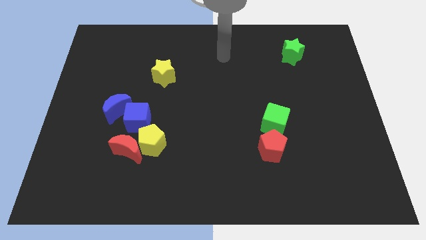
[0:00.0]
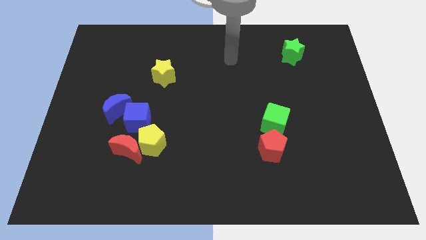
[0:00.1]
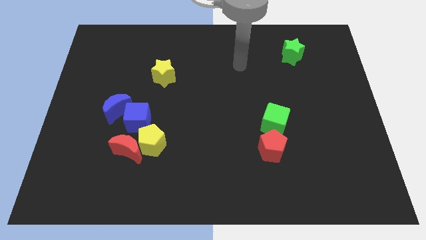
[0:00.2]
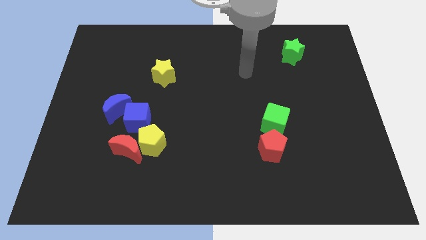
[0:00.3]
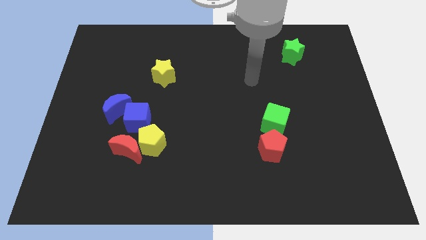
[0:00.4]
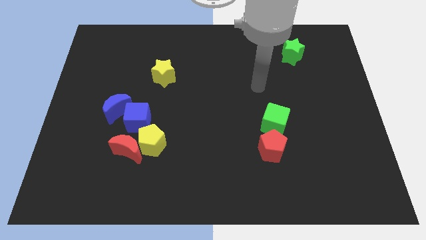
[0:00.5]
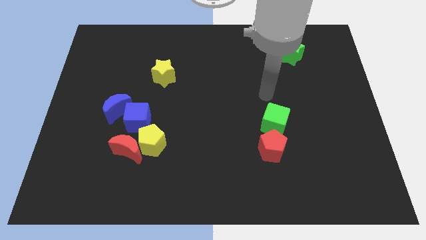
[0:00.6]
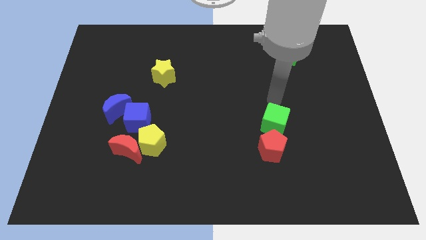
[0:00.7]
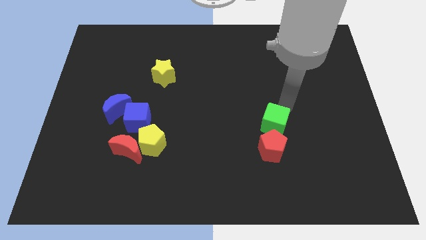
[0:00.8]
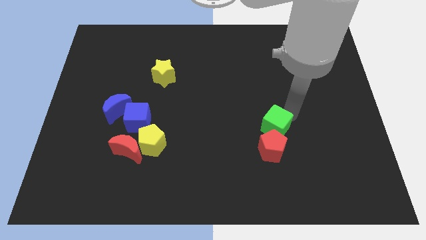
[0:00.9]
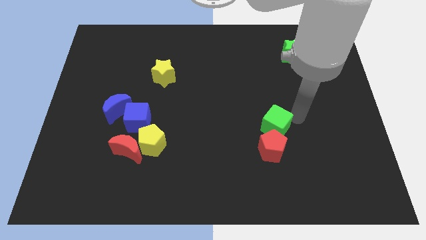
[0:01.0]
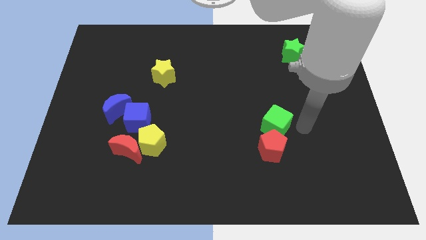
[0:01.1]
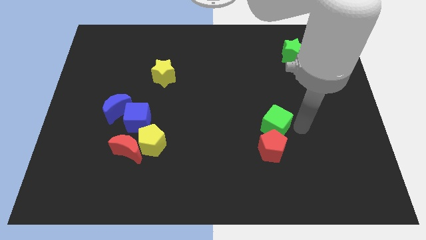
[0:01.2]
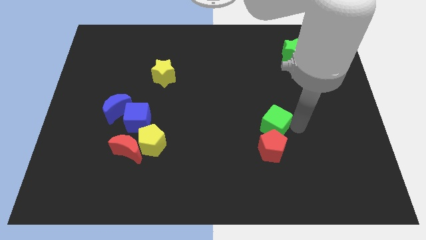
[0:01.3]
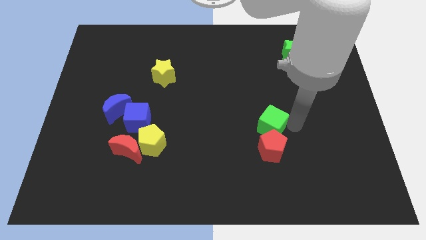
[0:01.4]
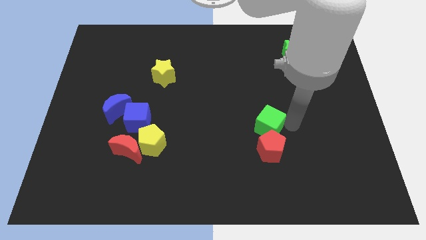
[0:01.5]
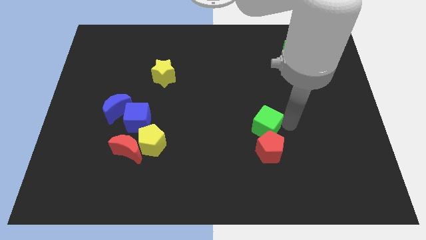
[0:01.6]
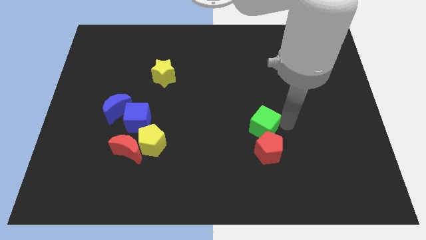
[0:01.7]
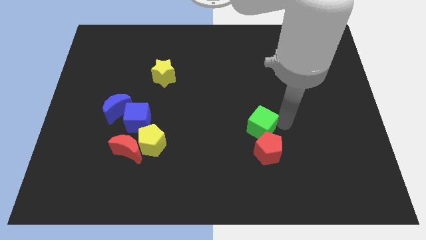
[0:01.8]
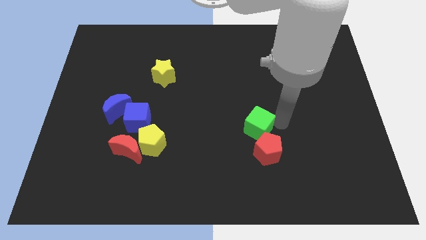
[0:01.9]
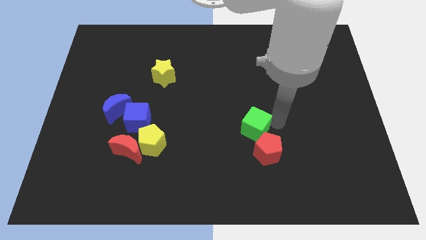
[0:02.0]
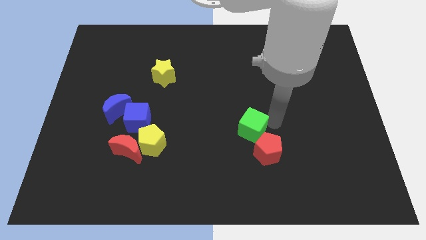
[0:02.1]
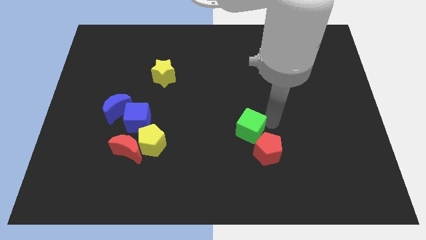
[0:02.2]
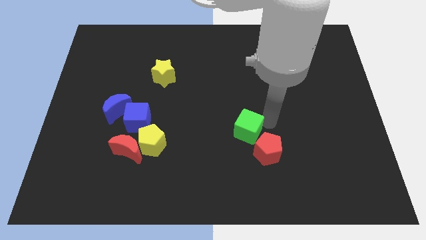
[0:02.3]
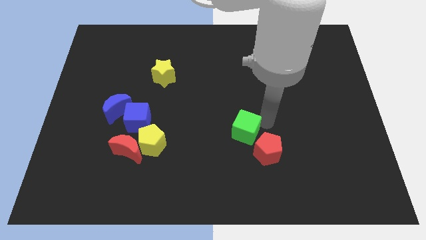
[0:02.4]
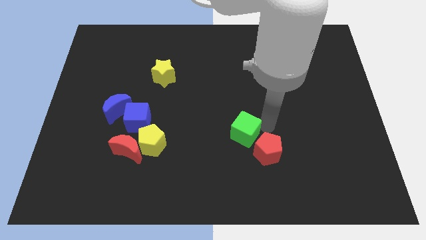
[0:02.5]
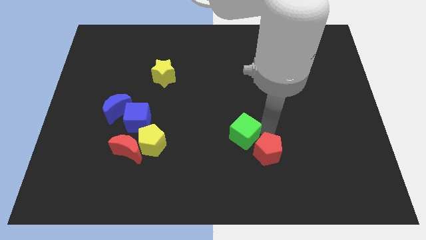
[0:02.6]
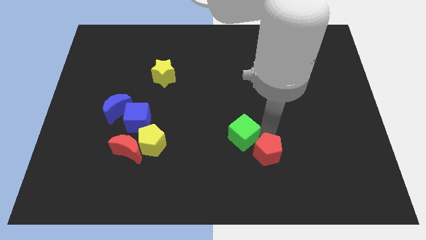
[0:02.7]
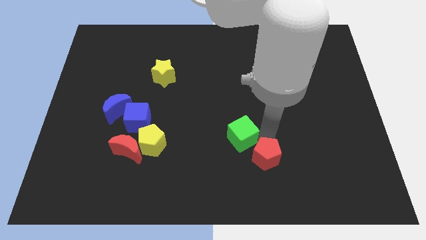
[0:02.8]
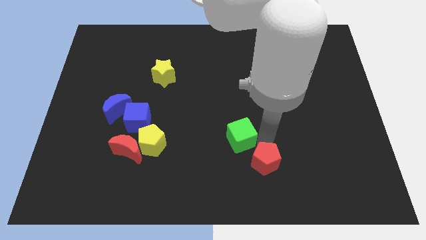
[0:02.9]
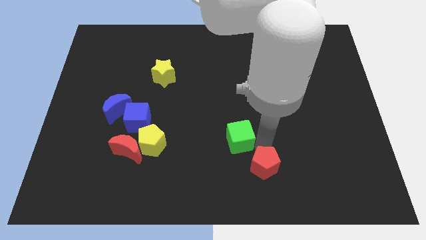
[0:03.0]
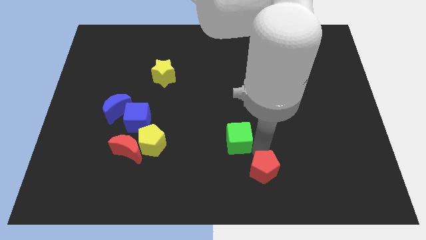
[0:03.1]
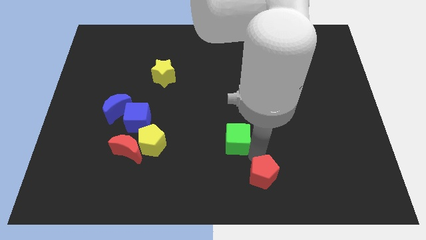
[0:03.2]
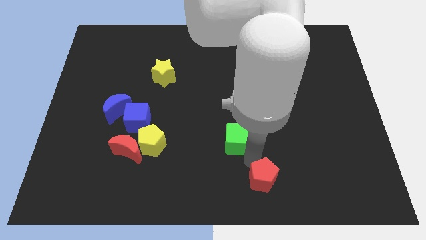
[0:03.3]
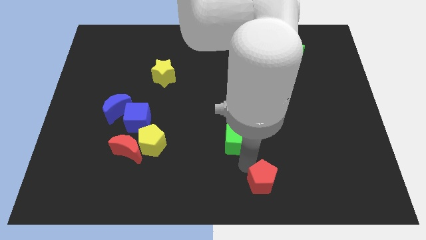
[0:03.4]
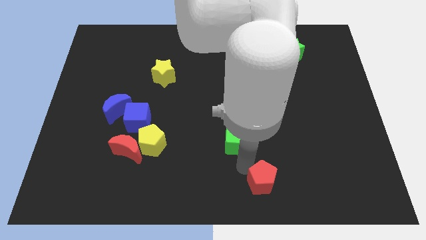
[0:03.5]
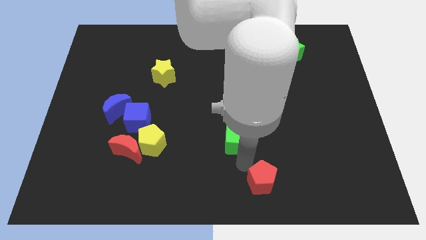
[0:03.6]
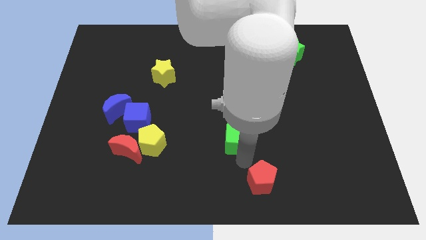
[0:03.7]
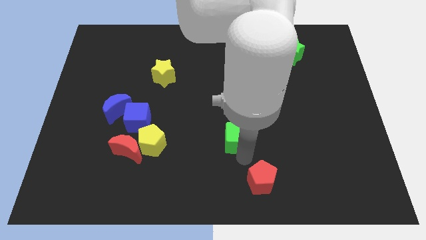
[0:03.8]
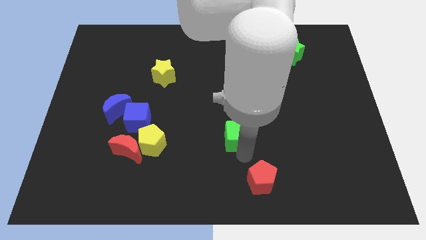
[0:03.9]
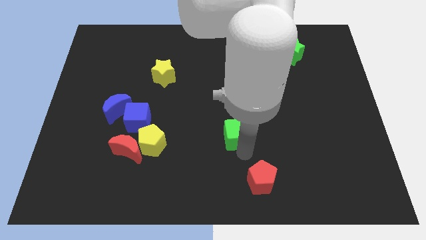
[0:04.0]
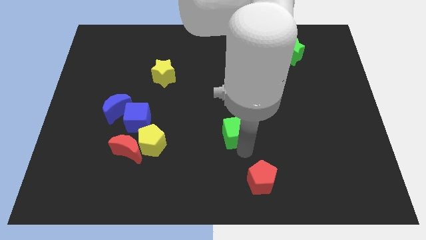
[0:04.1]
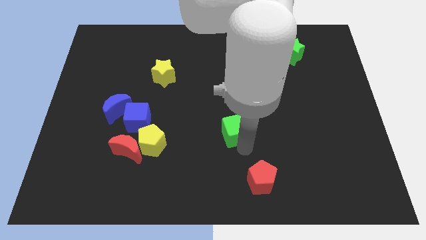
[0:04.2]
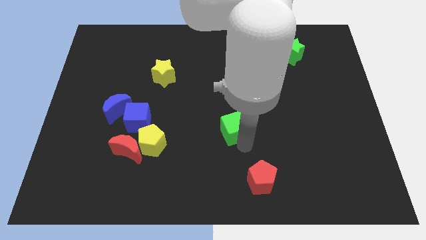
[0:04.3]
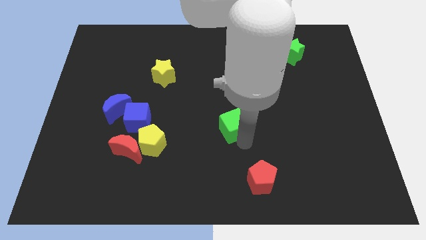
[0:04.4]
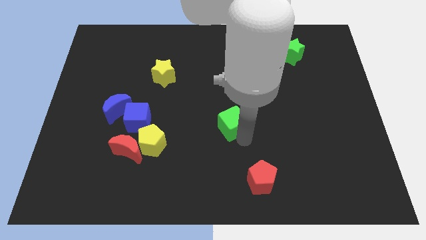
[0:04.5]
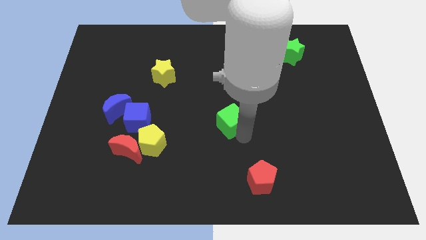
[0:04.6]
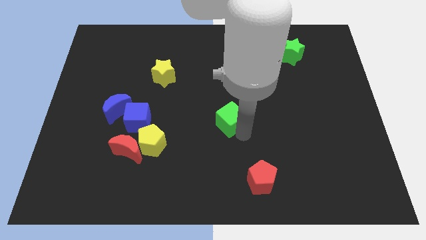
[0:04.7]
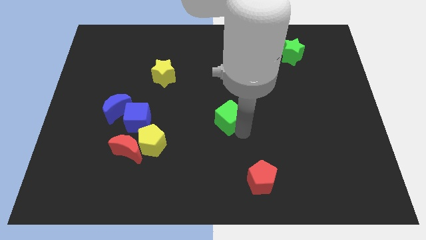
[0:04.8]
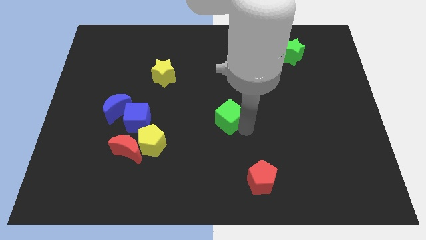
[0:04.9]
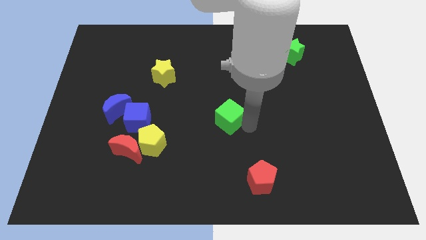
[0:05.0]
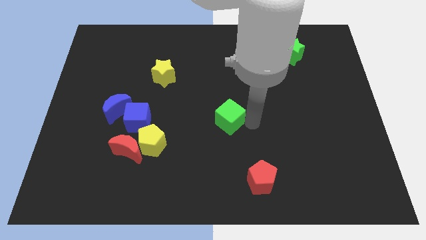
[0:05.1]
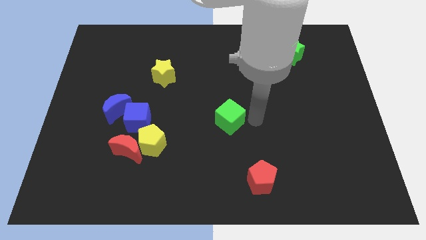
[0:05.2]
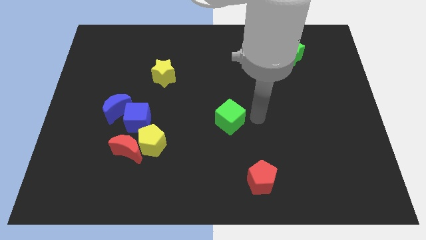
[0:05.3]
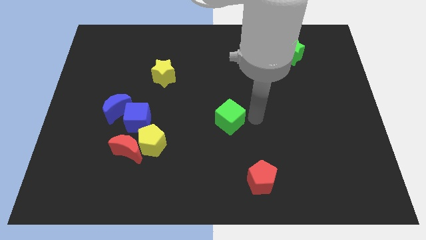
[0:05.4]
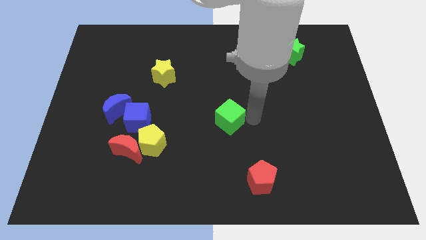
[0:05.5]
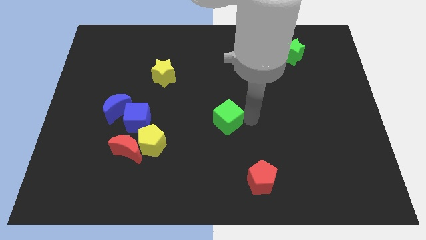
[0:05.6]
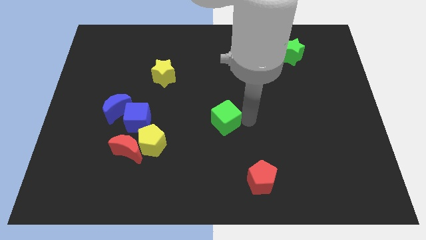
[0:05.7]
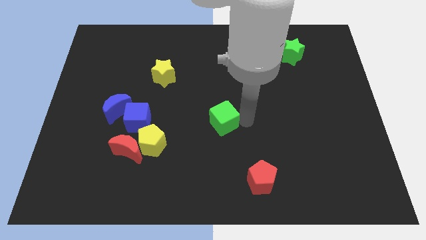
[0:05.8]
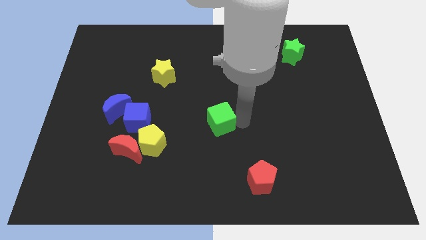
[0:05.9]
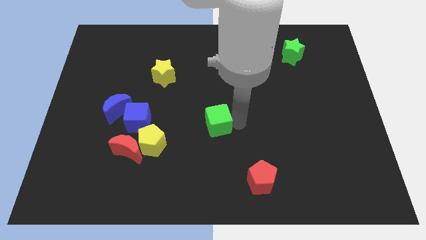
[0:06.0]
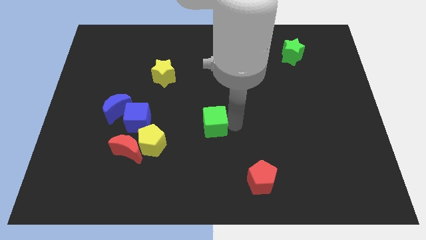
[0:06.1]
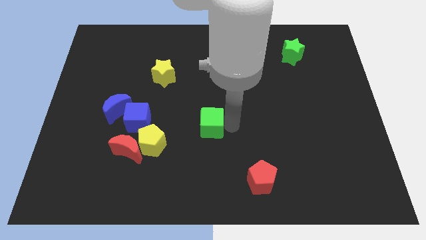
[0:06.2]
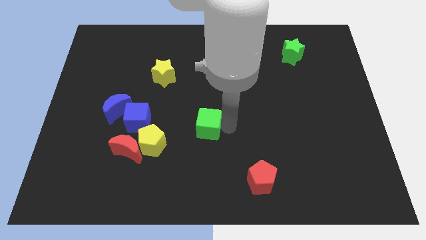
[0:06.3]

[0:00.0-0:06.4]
slide the green cube just right of the blue cube

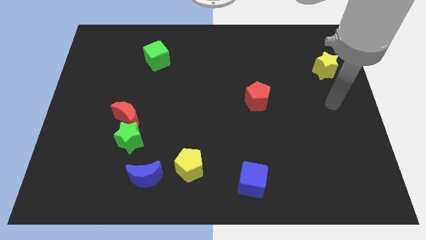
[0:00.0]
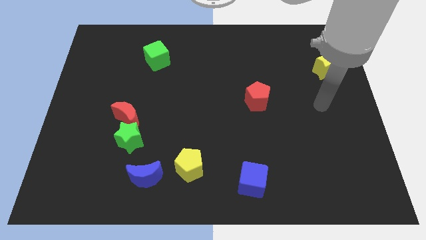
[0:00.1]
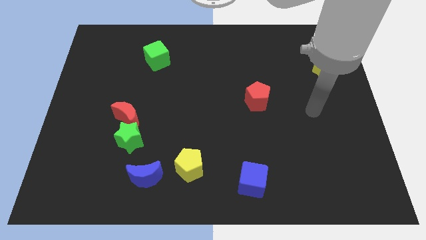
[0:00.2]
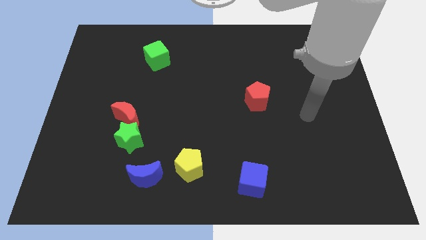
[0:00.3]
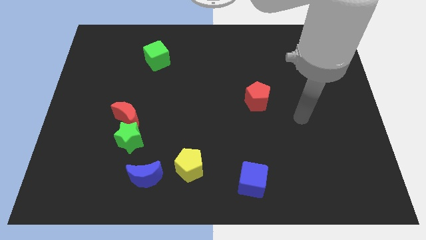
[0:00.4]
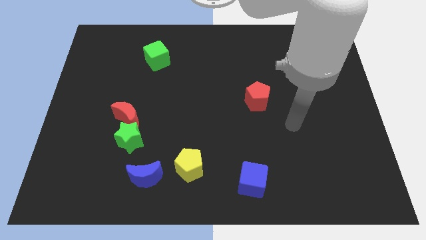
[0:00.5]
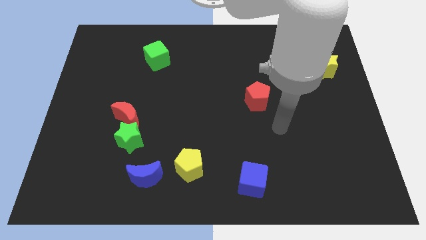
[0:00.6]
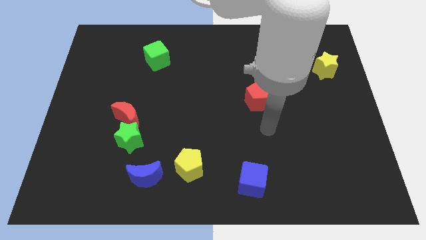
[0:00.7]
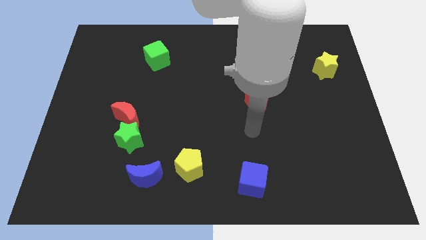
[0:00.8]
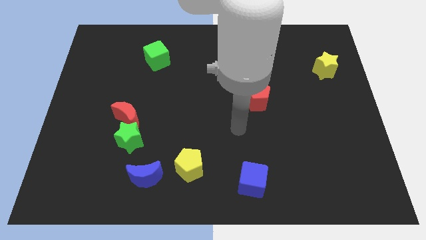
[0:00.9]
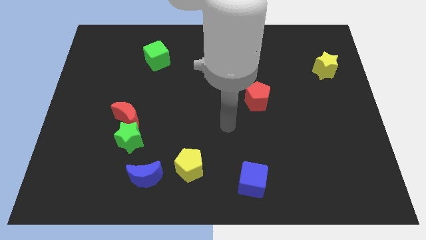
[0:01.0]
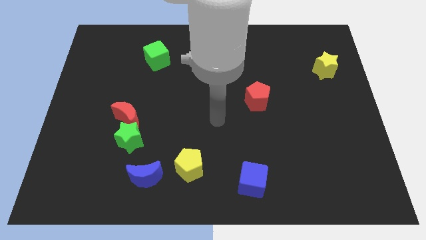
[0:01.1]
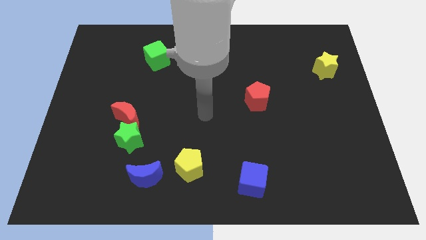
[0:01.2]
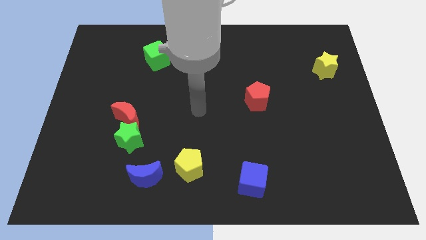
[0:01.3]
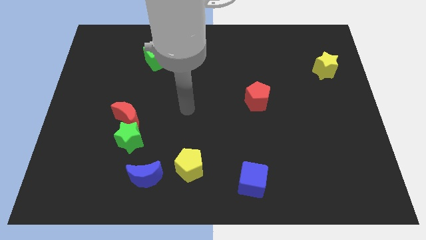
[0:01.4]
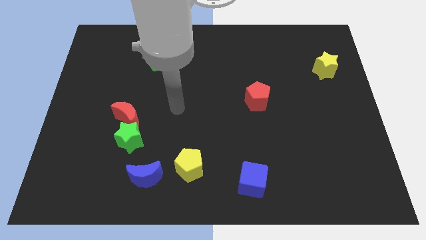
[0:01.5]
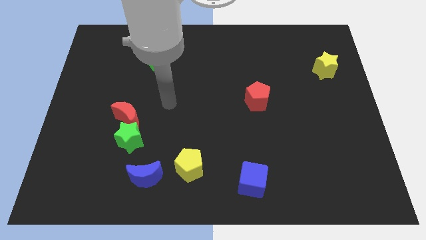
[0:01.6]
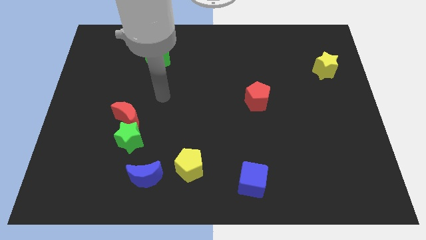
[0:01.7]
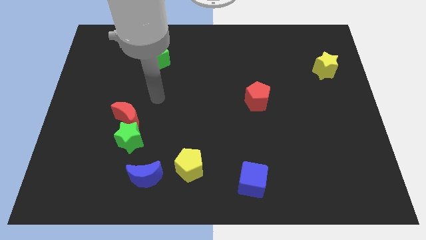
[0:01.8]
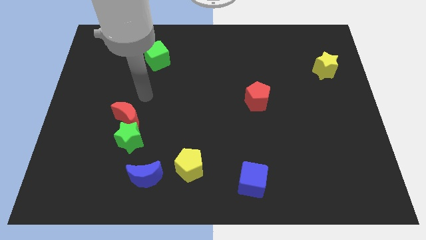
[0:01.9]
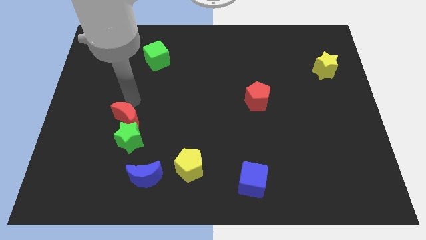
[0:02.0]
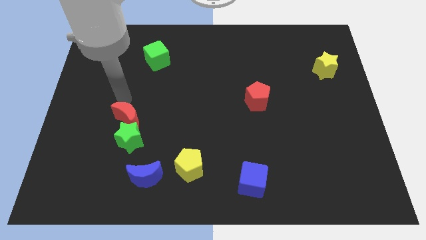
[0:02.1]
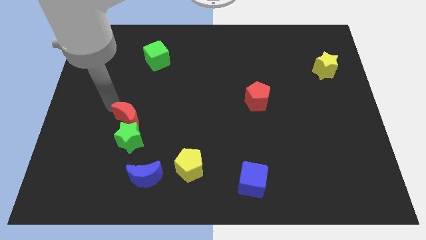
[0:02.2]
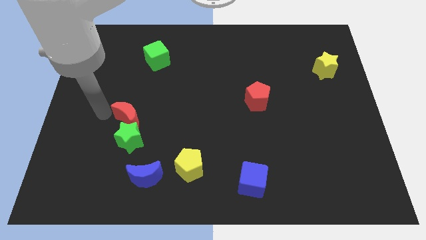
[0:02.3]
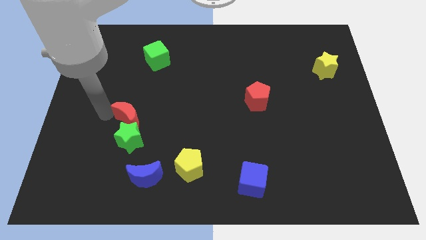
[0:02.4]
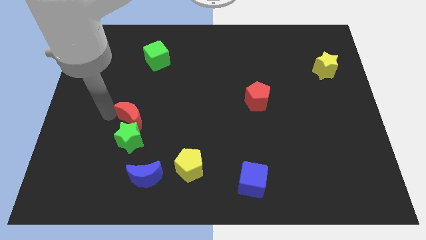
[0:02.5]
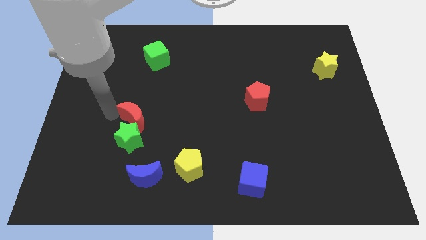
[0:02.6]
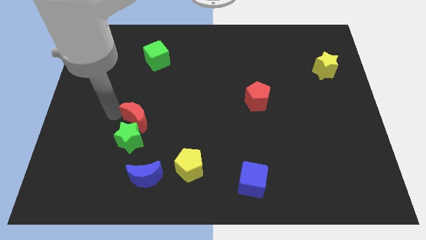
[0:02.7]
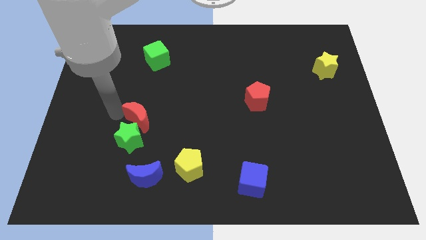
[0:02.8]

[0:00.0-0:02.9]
move the red moon above the blue moon
